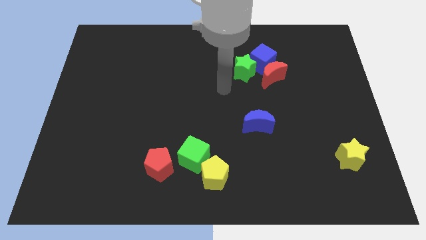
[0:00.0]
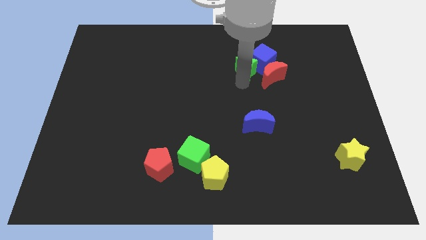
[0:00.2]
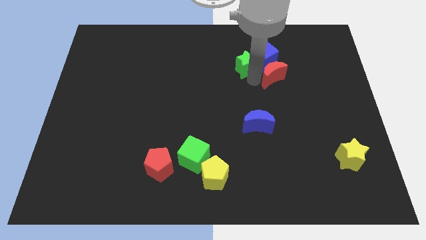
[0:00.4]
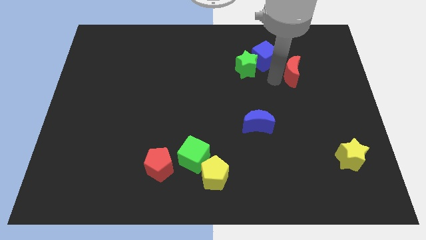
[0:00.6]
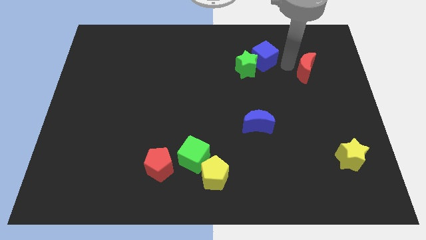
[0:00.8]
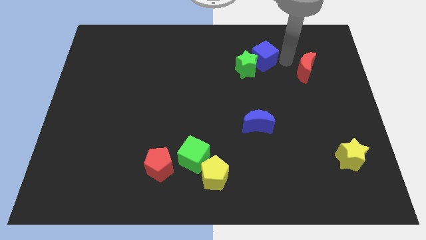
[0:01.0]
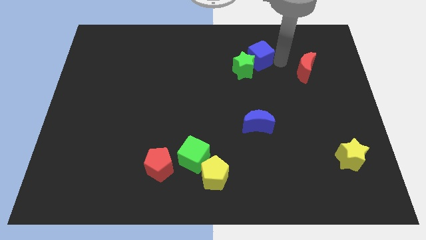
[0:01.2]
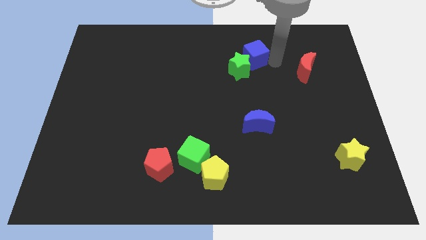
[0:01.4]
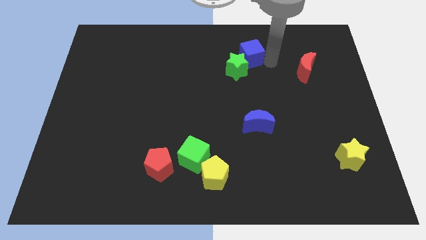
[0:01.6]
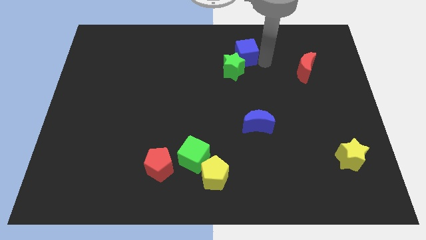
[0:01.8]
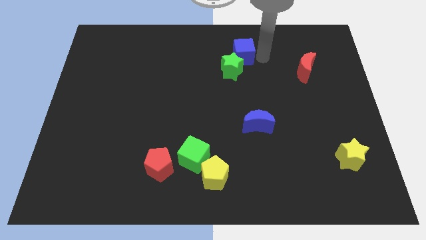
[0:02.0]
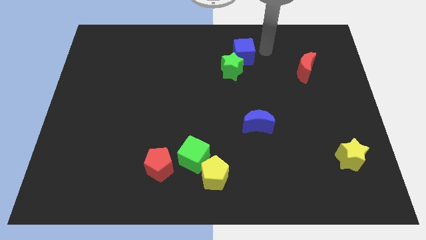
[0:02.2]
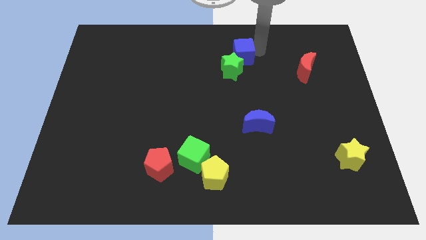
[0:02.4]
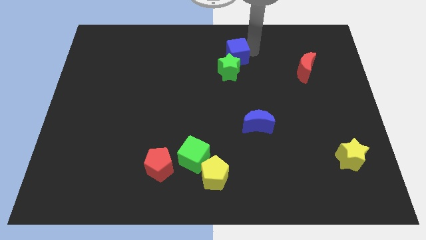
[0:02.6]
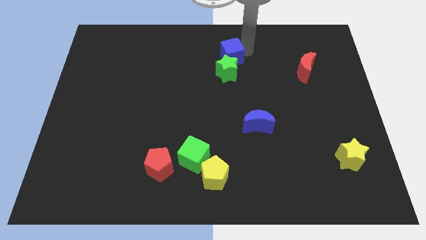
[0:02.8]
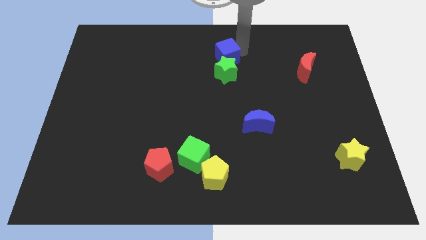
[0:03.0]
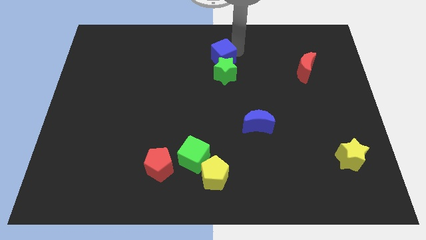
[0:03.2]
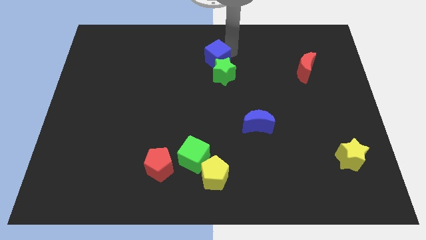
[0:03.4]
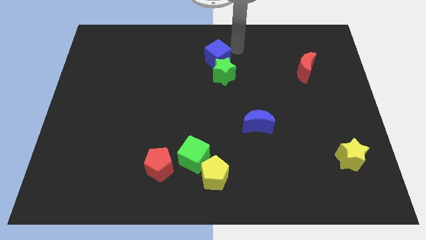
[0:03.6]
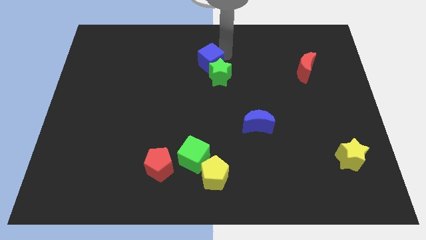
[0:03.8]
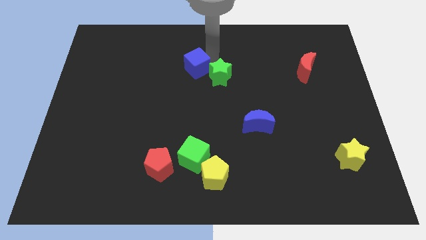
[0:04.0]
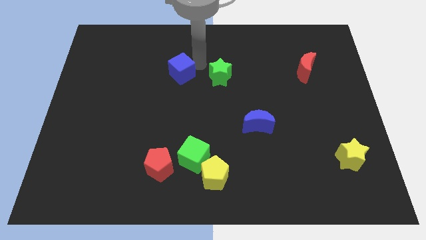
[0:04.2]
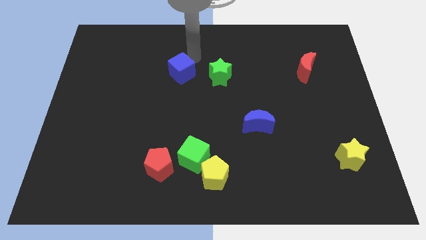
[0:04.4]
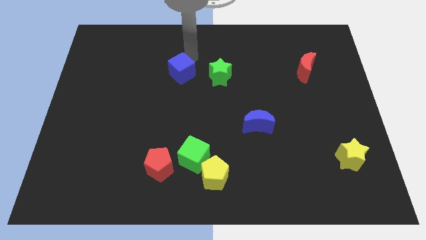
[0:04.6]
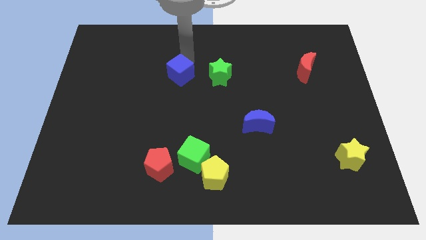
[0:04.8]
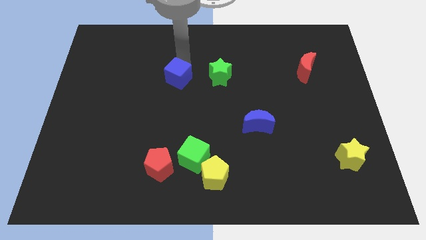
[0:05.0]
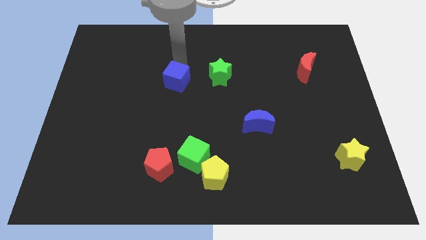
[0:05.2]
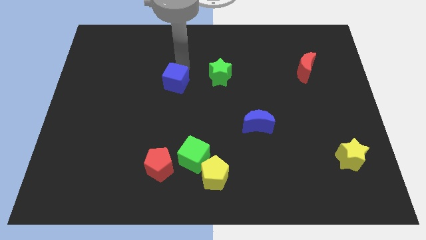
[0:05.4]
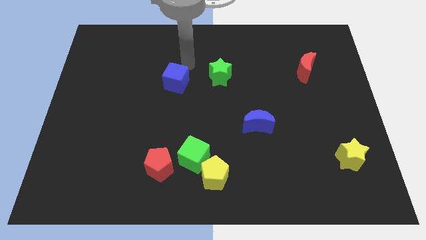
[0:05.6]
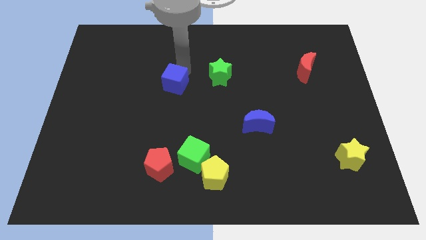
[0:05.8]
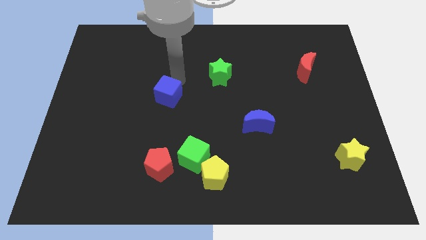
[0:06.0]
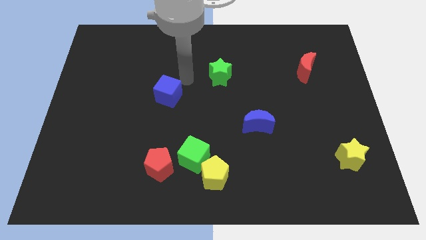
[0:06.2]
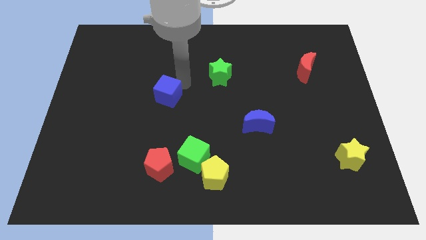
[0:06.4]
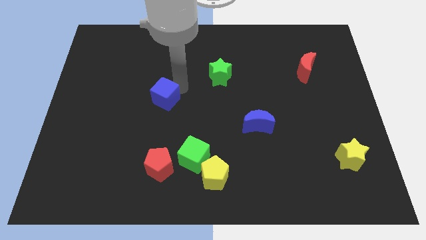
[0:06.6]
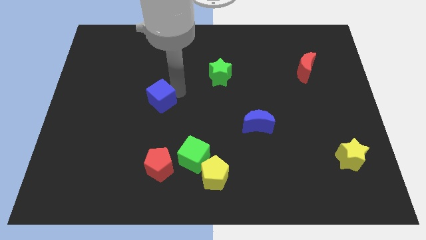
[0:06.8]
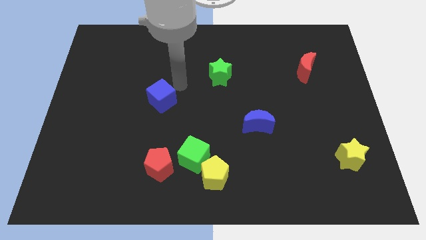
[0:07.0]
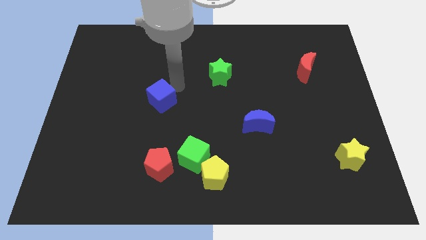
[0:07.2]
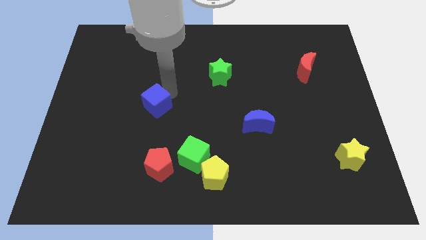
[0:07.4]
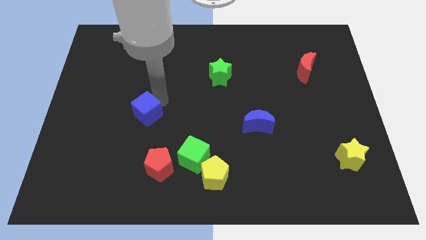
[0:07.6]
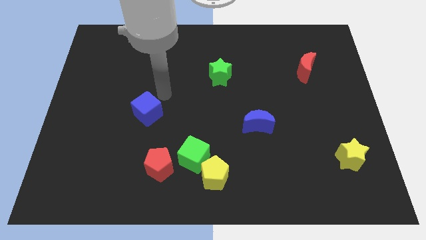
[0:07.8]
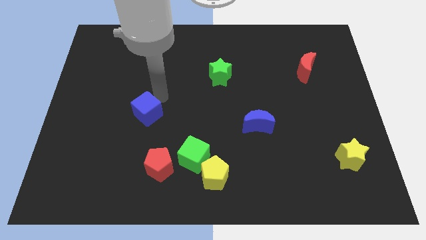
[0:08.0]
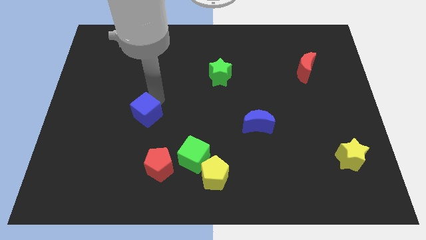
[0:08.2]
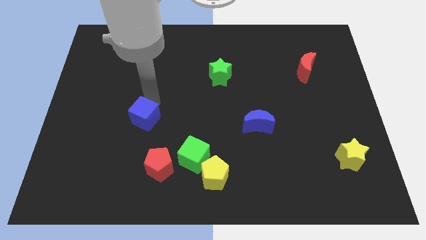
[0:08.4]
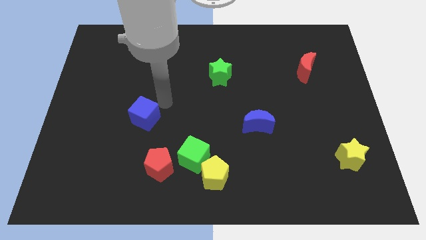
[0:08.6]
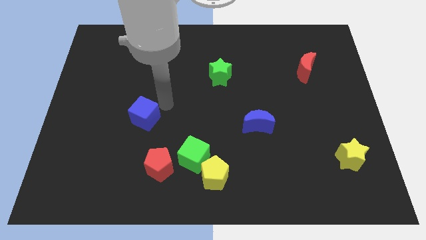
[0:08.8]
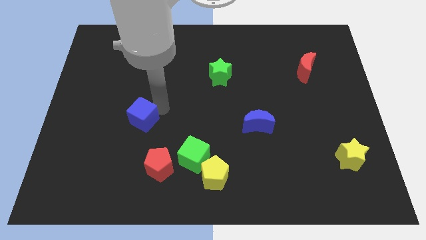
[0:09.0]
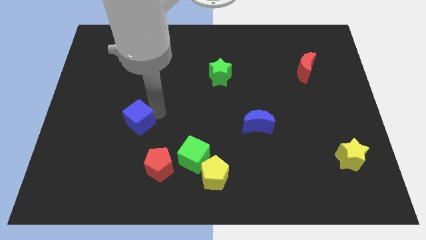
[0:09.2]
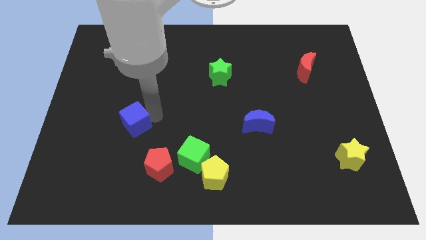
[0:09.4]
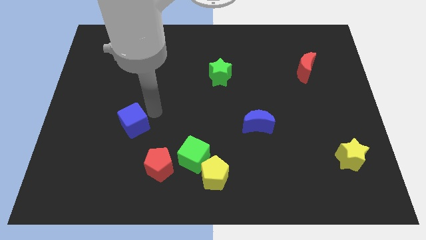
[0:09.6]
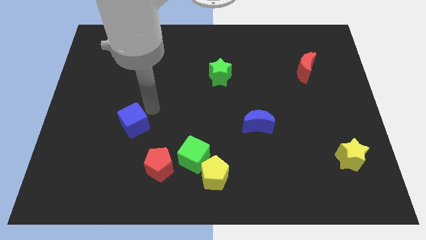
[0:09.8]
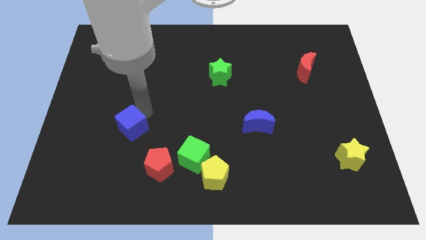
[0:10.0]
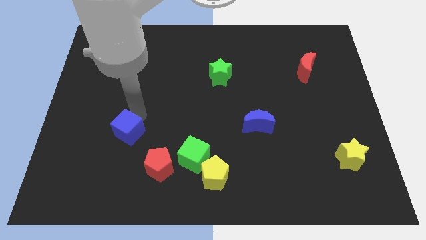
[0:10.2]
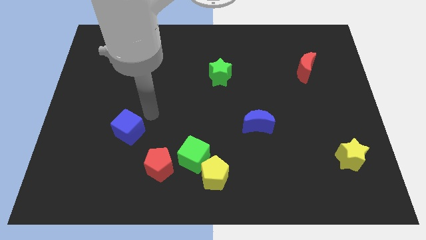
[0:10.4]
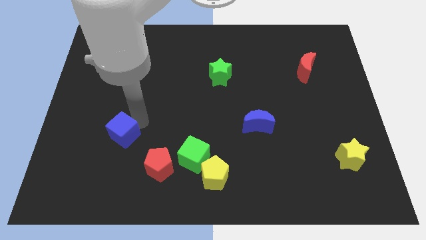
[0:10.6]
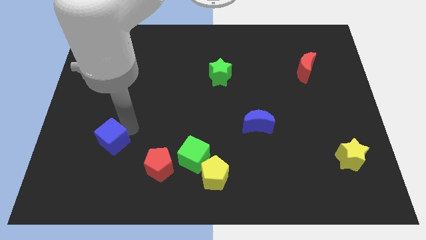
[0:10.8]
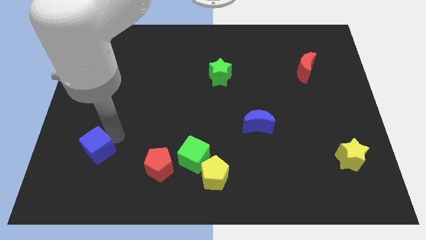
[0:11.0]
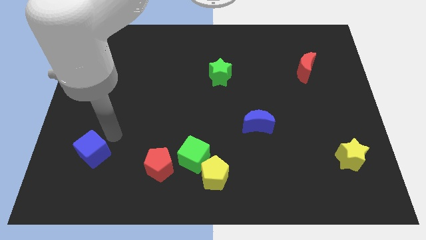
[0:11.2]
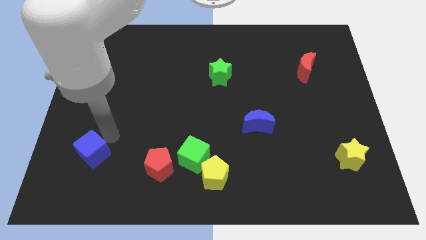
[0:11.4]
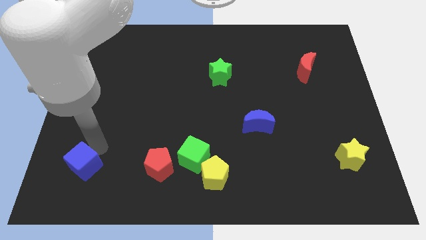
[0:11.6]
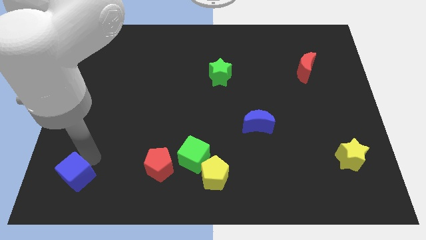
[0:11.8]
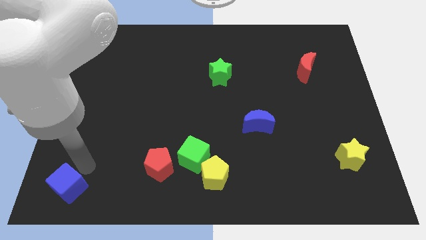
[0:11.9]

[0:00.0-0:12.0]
push the blue cube to the bottom left of the board
